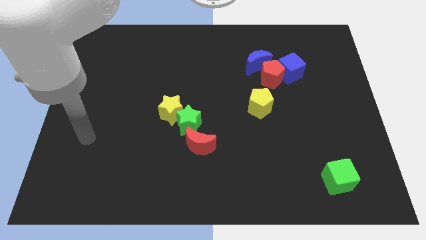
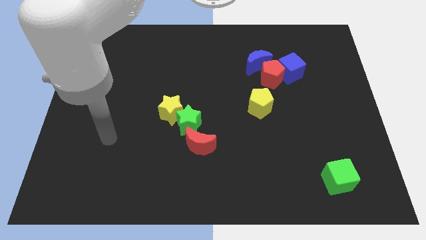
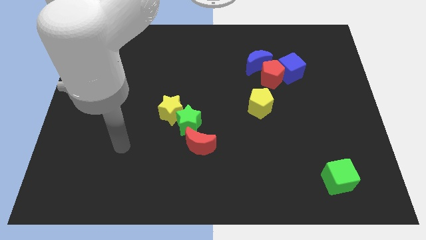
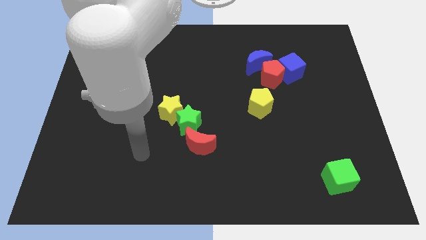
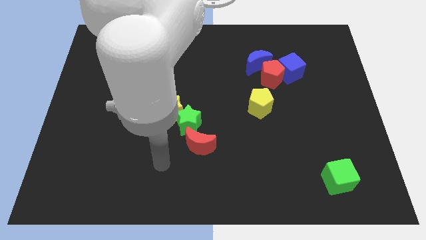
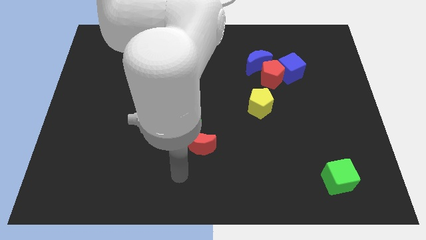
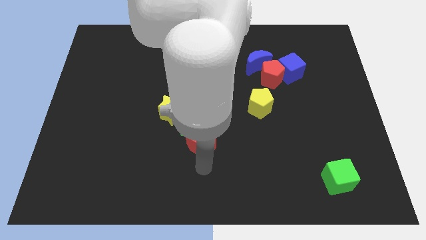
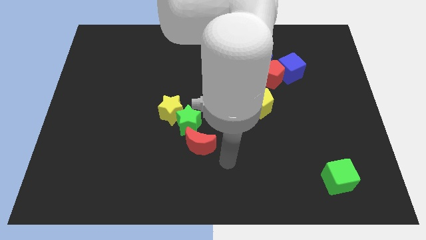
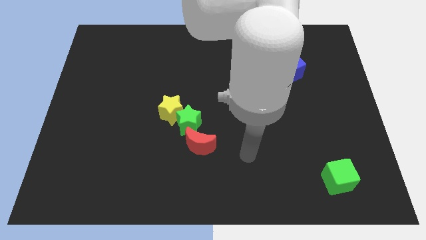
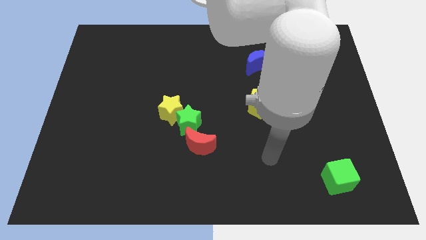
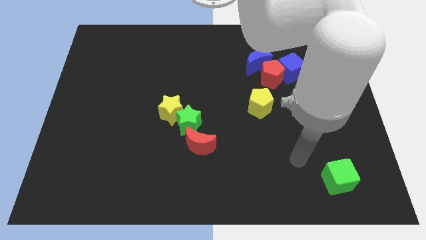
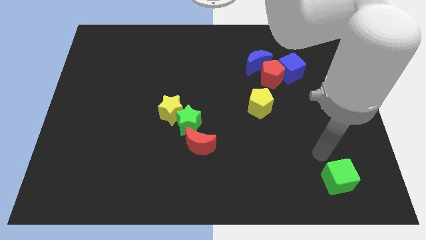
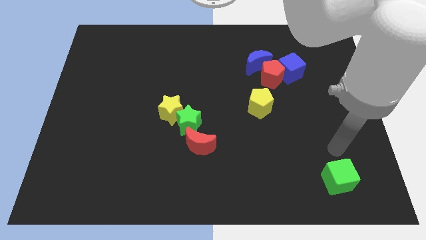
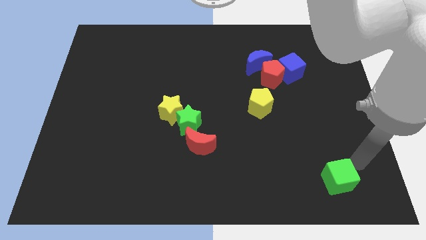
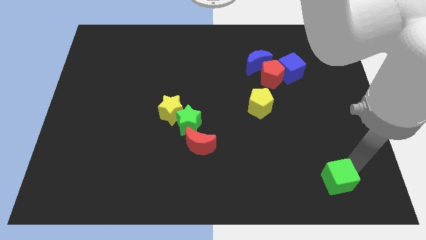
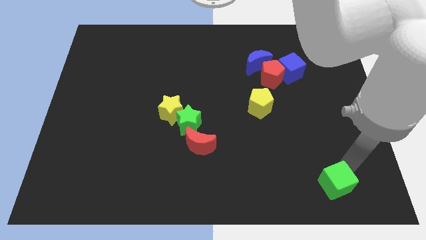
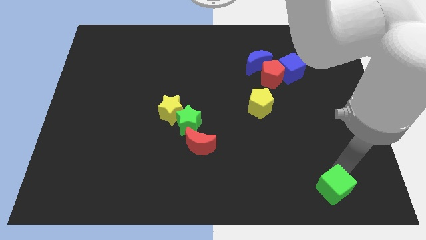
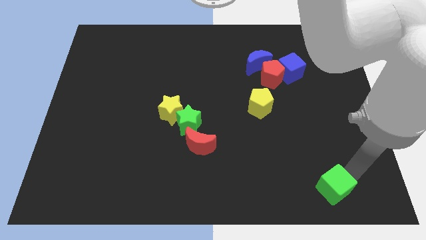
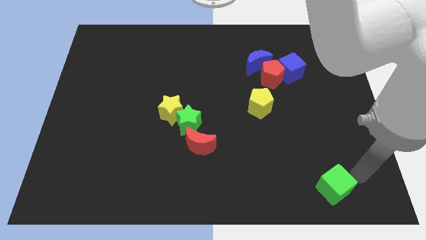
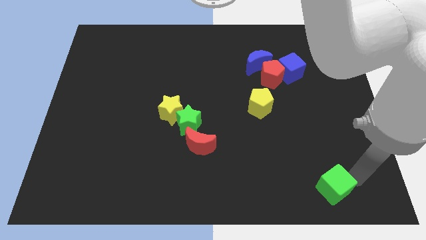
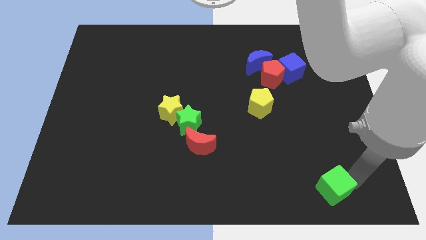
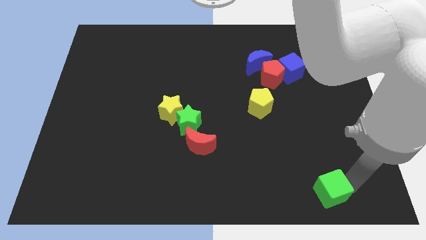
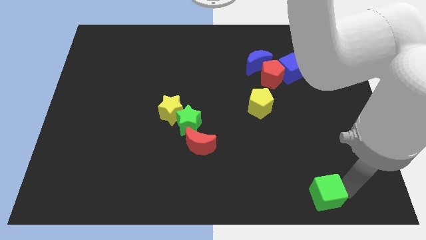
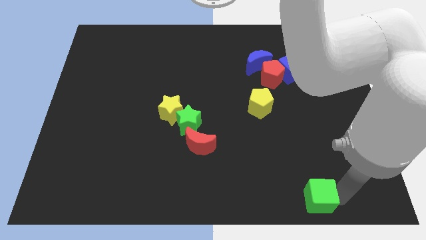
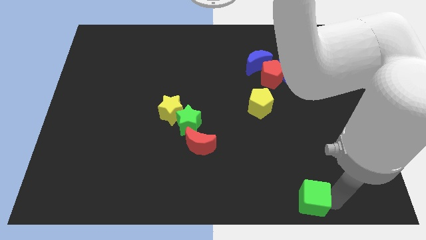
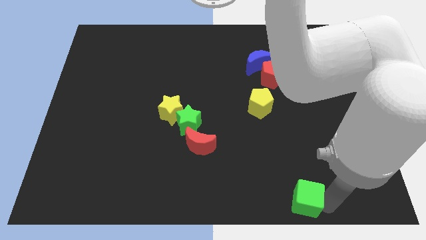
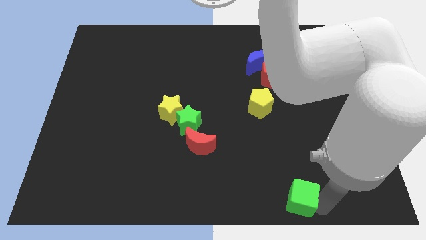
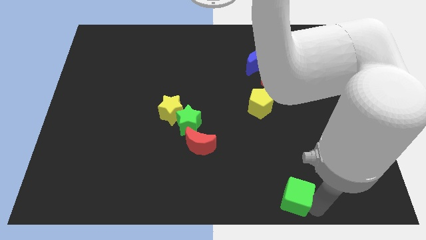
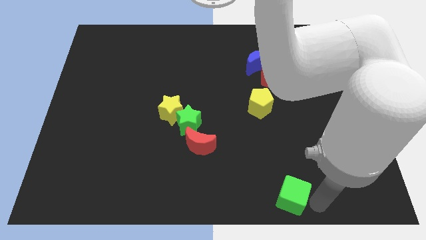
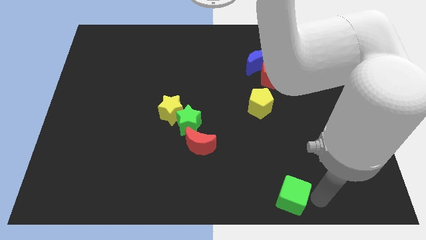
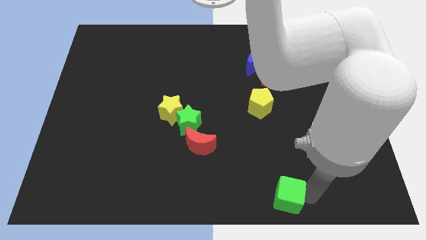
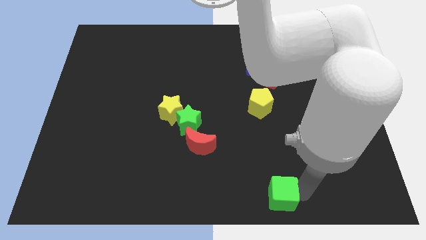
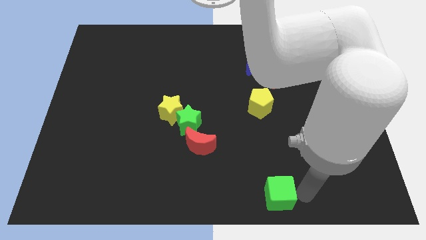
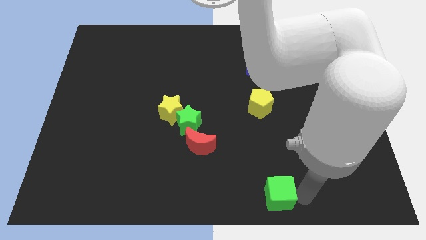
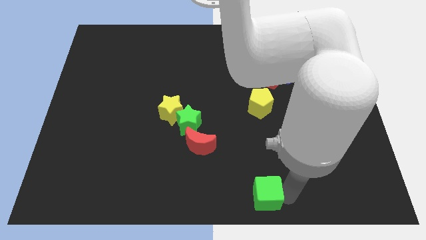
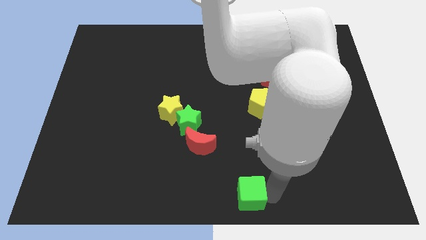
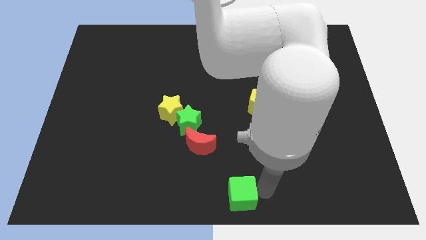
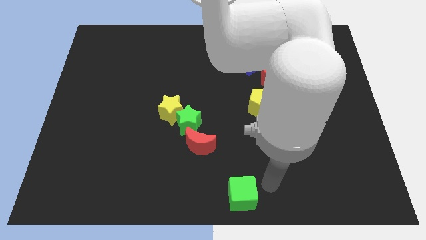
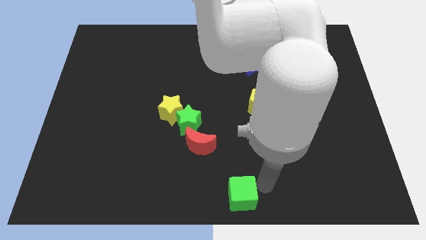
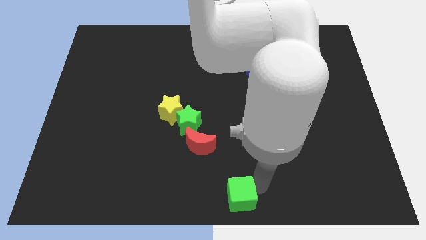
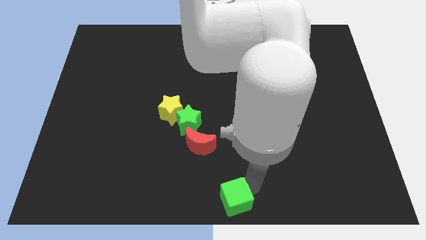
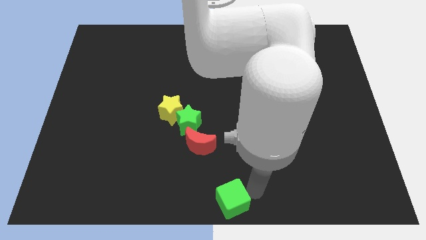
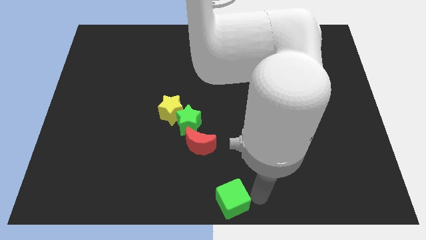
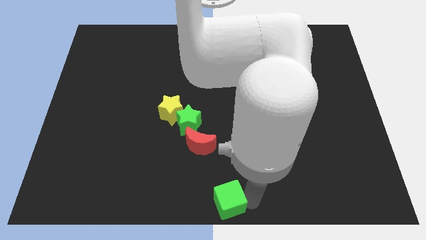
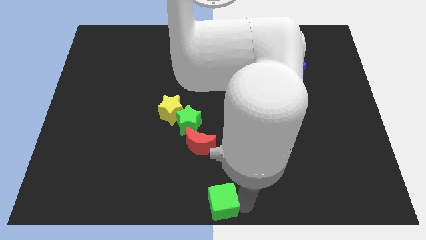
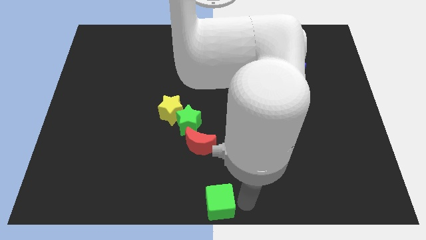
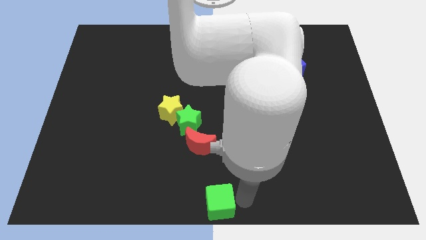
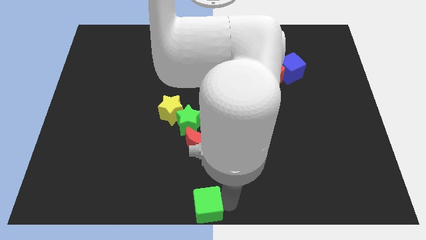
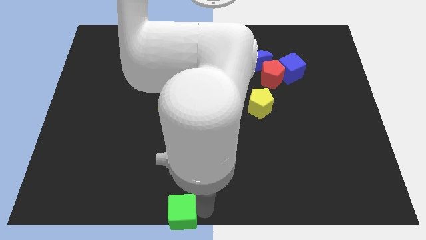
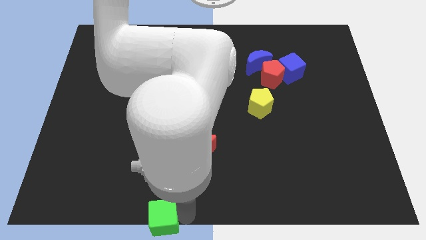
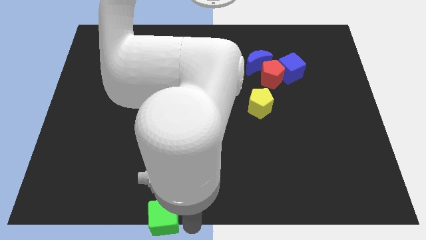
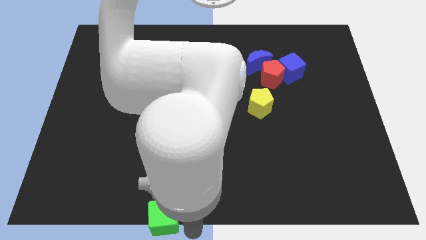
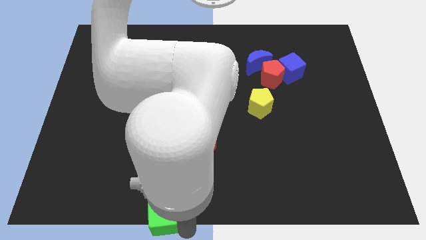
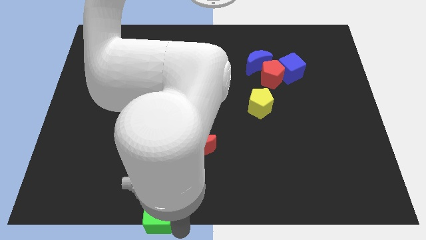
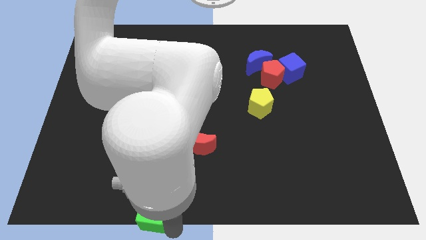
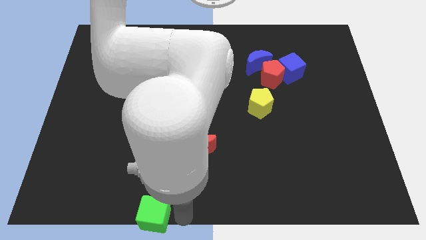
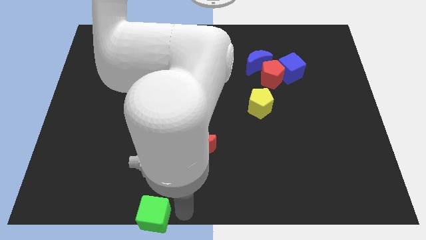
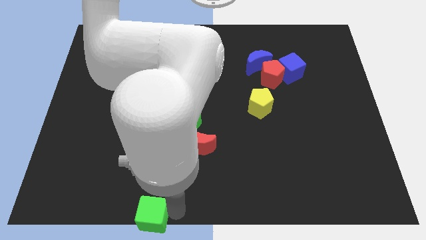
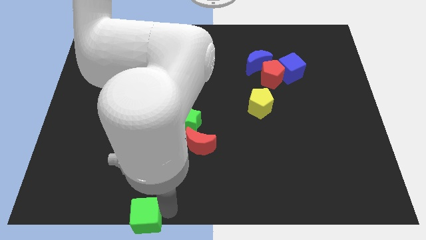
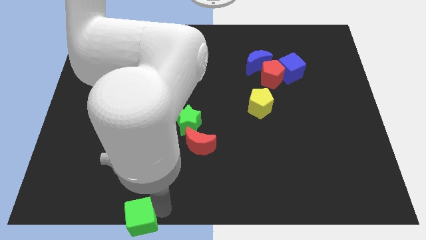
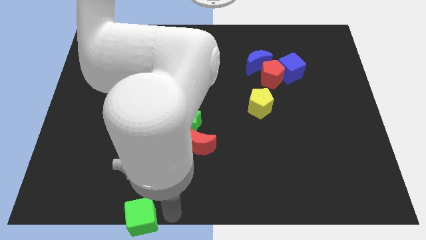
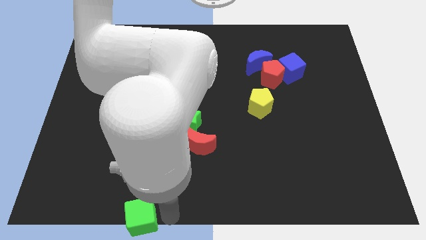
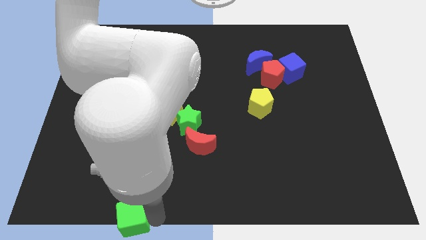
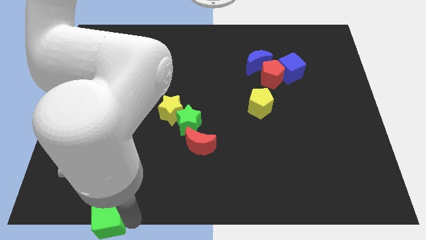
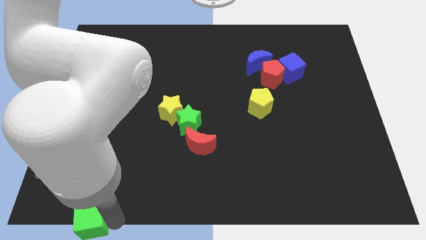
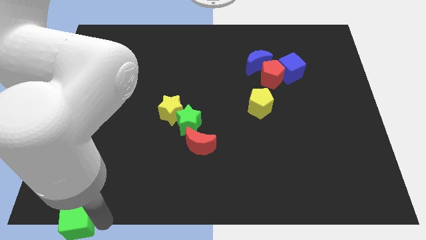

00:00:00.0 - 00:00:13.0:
slide the green cube to the bottom left corner

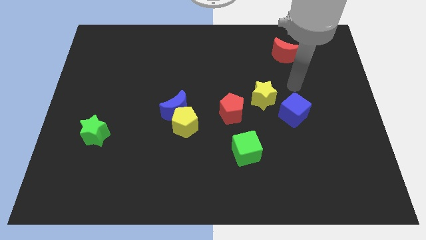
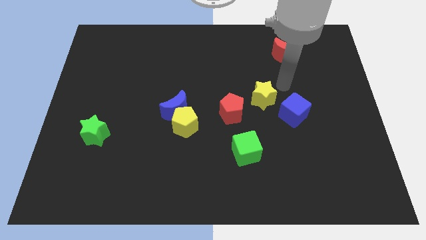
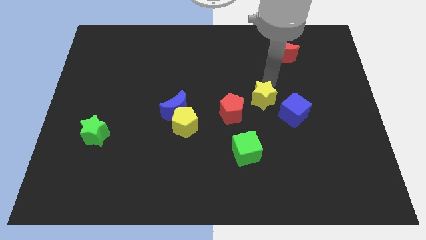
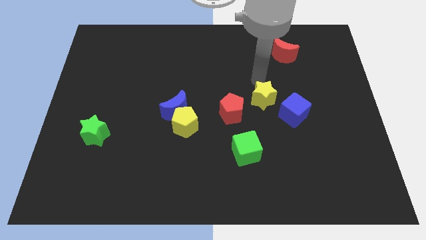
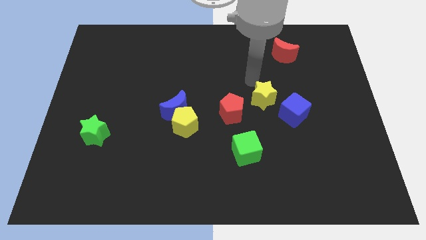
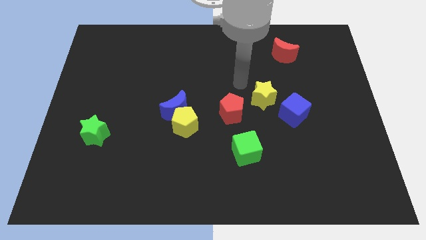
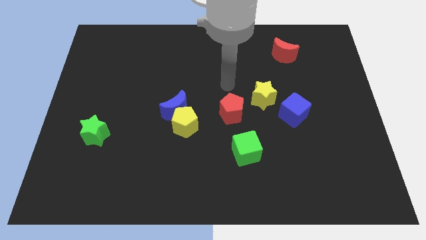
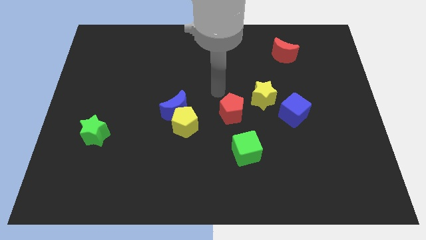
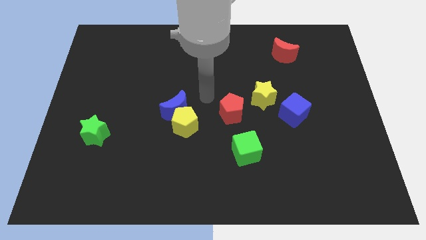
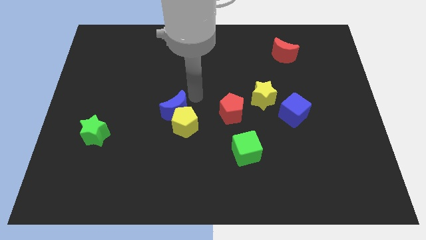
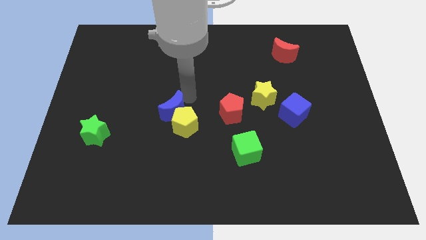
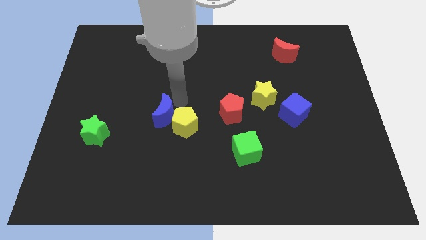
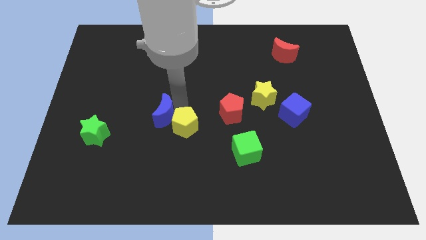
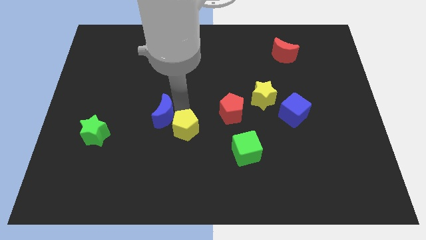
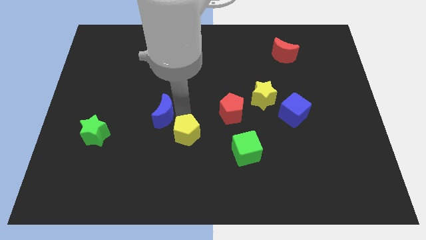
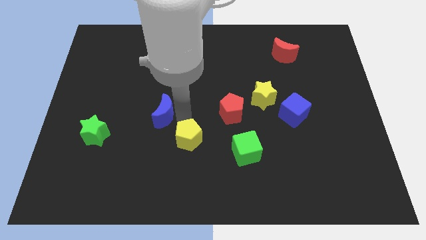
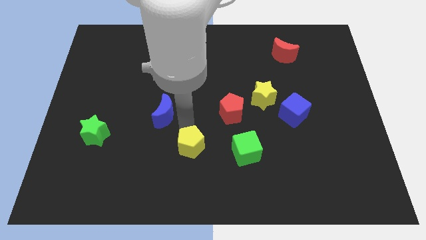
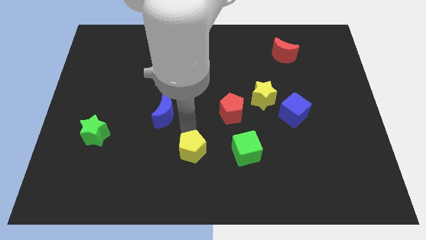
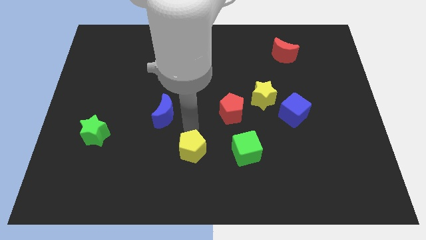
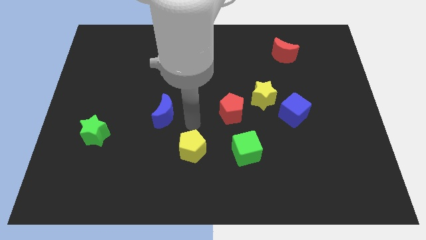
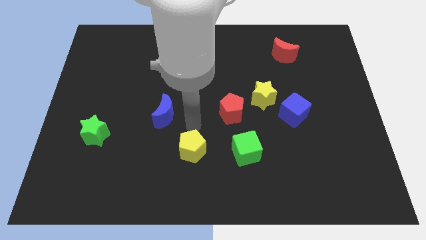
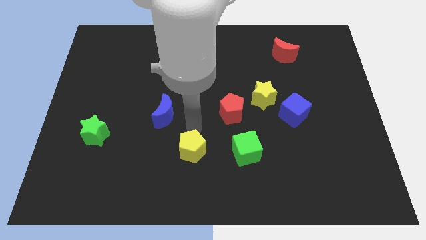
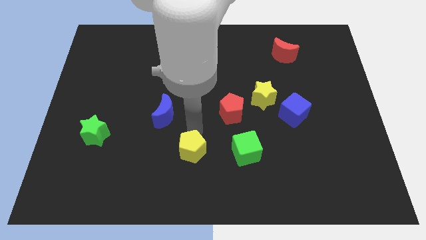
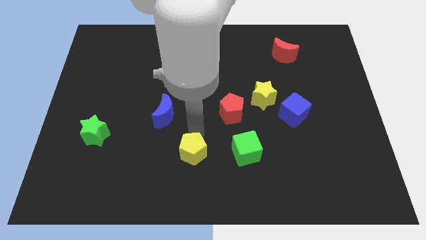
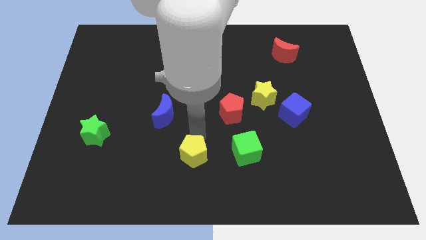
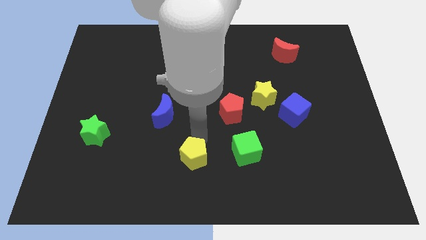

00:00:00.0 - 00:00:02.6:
push the yellow pentagon to the bottom side
